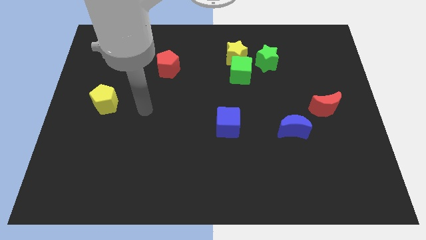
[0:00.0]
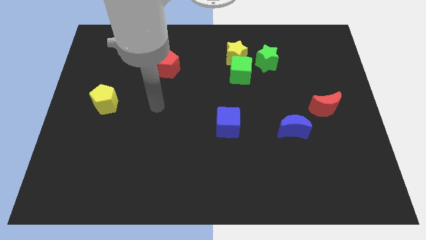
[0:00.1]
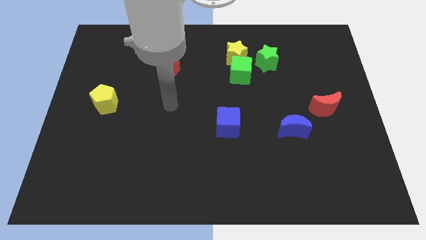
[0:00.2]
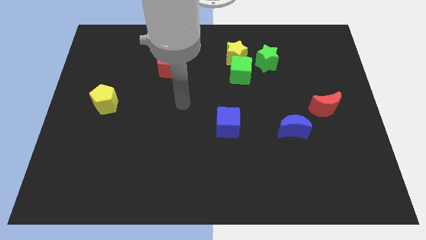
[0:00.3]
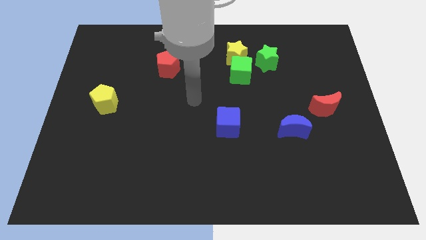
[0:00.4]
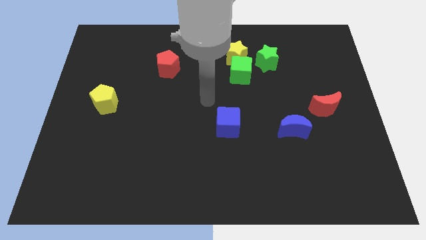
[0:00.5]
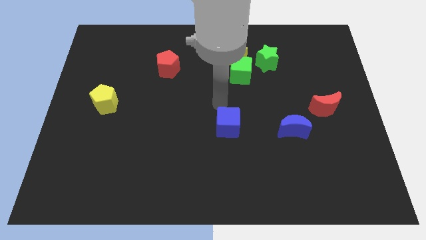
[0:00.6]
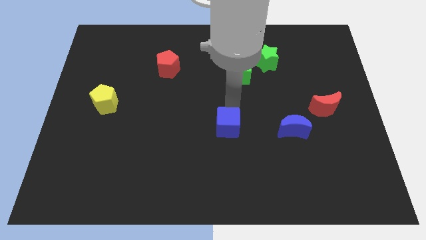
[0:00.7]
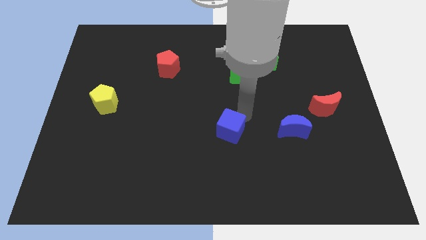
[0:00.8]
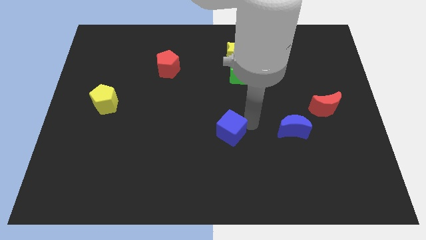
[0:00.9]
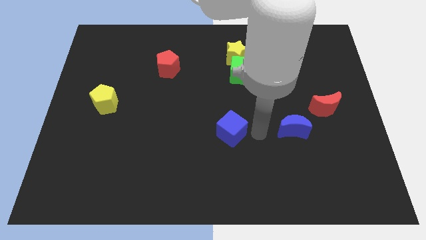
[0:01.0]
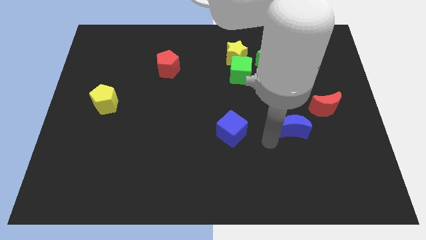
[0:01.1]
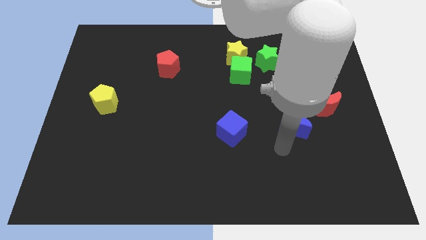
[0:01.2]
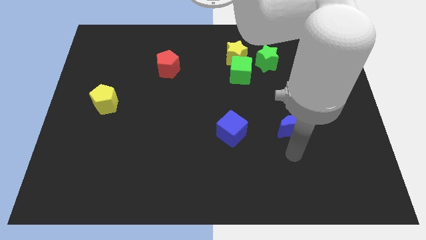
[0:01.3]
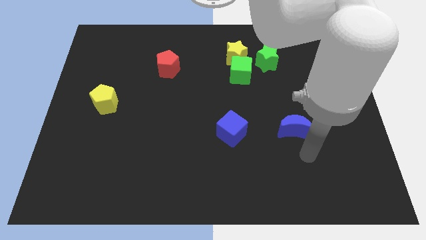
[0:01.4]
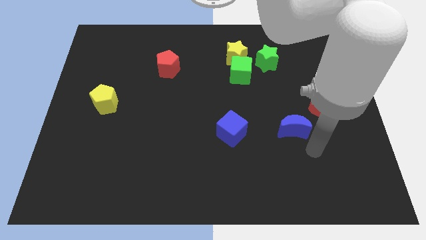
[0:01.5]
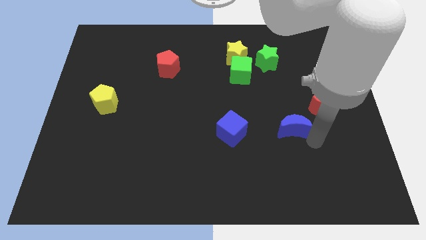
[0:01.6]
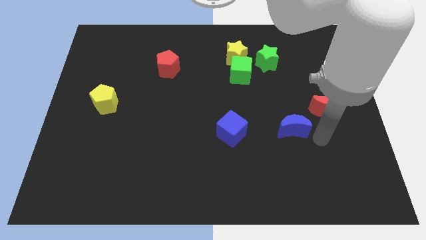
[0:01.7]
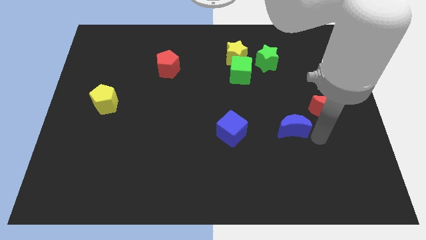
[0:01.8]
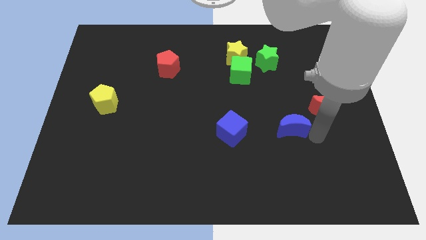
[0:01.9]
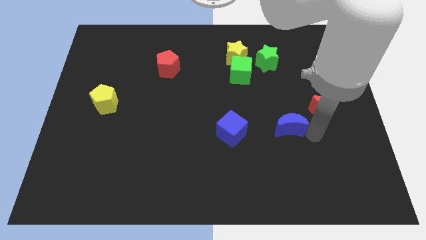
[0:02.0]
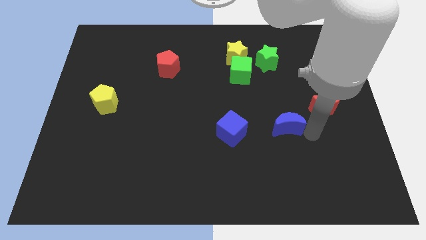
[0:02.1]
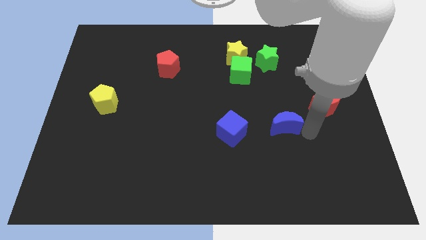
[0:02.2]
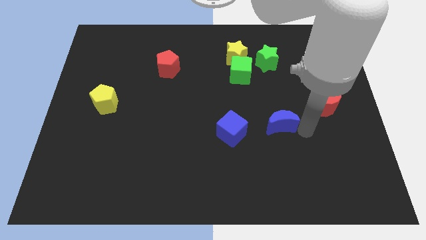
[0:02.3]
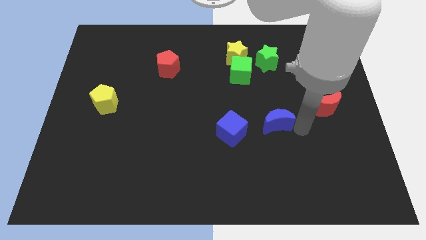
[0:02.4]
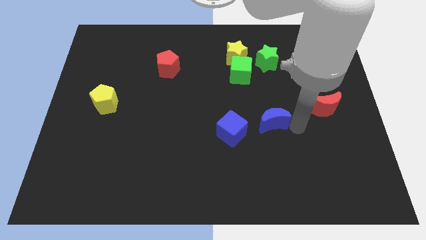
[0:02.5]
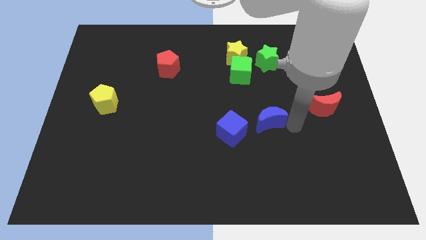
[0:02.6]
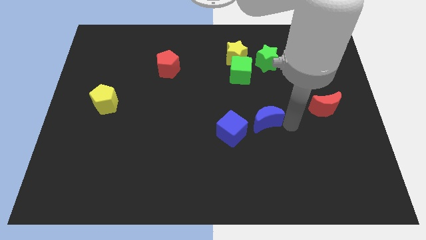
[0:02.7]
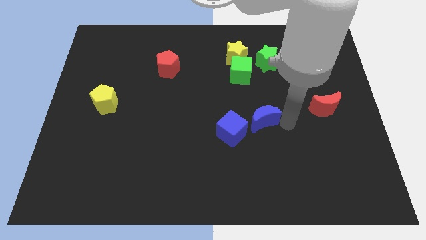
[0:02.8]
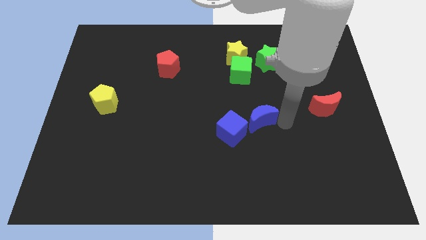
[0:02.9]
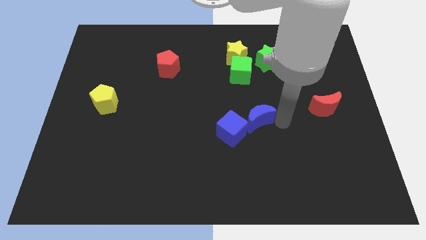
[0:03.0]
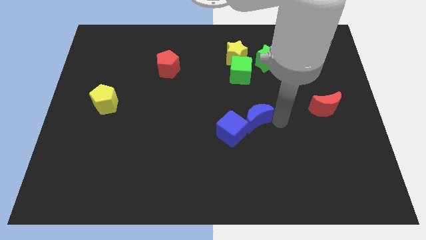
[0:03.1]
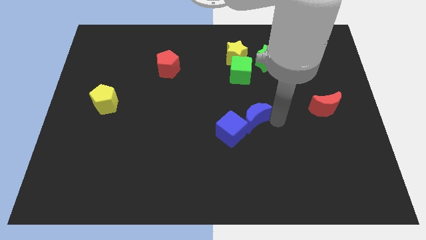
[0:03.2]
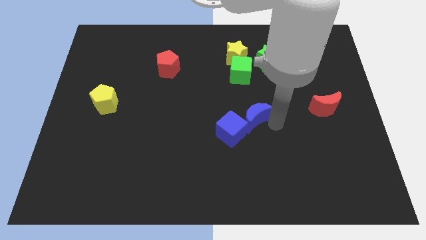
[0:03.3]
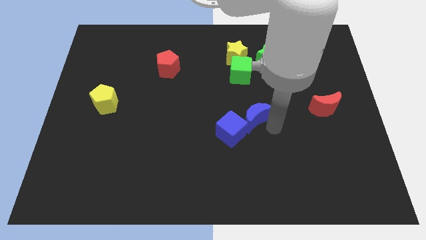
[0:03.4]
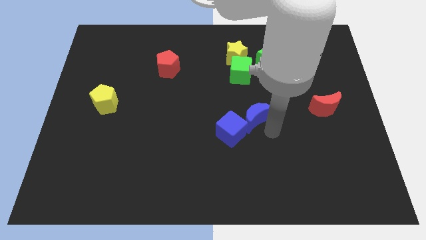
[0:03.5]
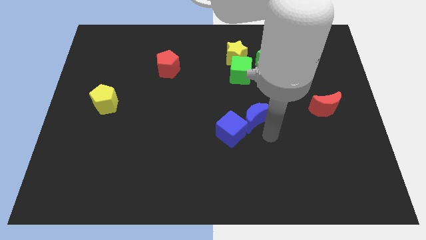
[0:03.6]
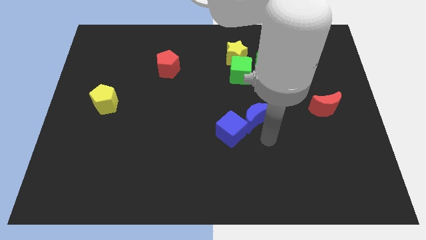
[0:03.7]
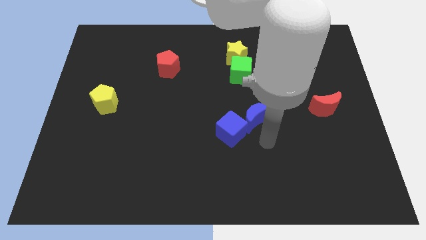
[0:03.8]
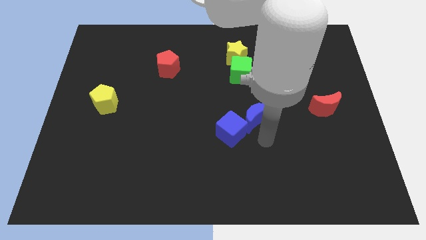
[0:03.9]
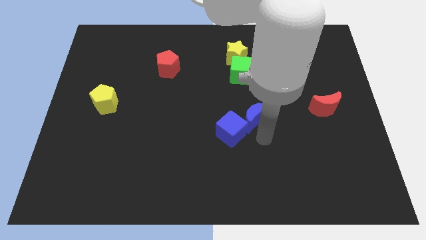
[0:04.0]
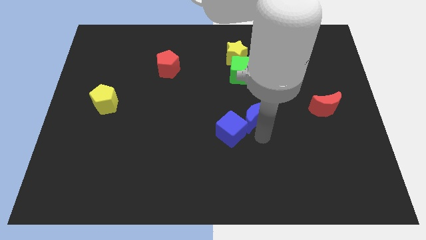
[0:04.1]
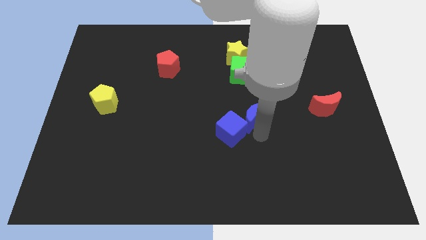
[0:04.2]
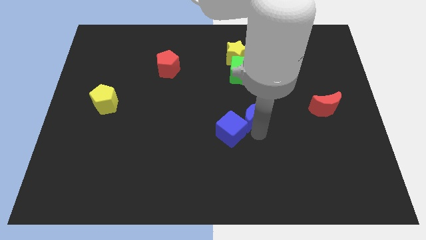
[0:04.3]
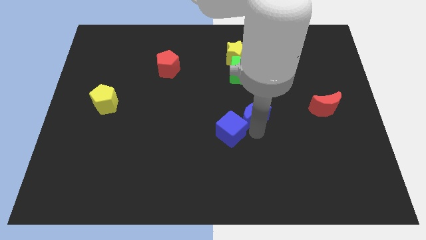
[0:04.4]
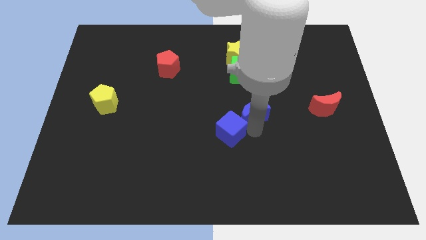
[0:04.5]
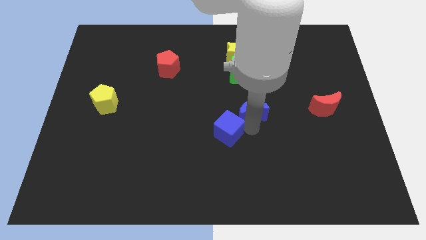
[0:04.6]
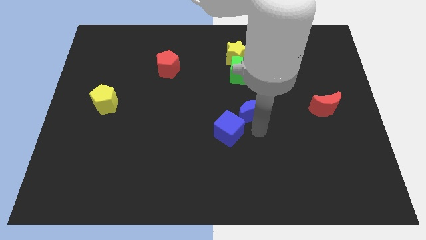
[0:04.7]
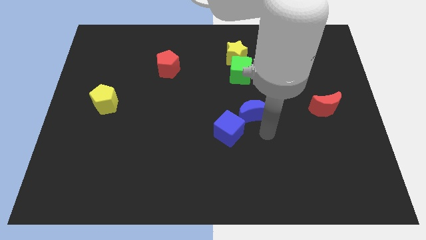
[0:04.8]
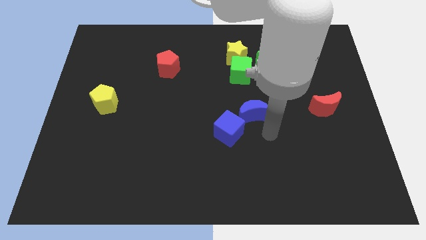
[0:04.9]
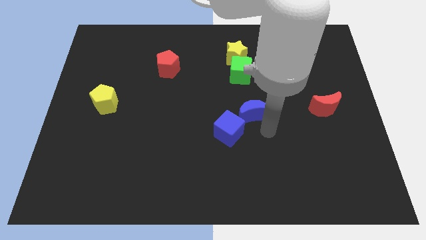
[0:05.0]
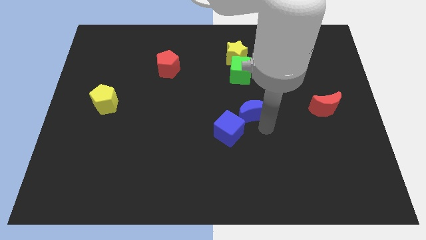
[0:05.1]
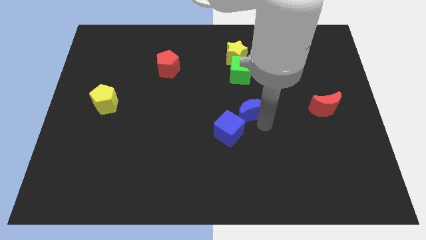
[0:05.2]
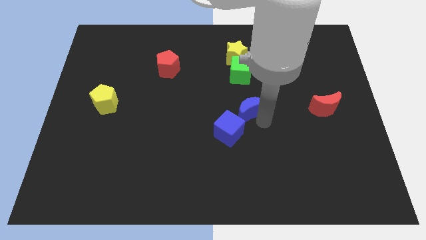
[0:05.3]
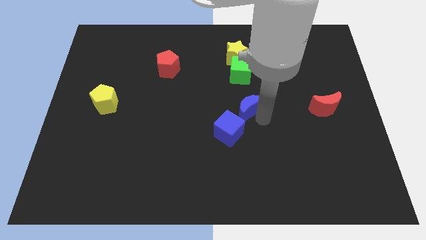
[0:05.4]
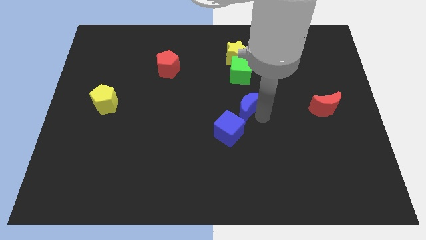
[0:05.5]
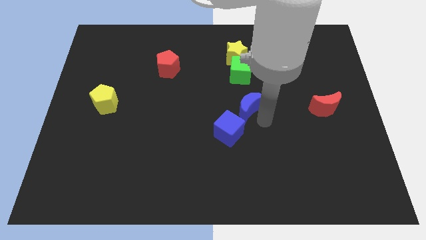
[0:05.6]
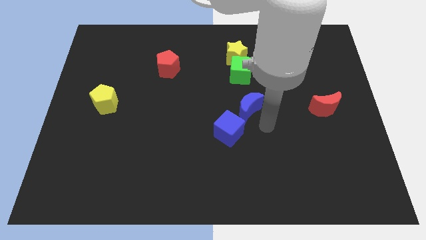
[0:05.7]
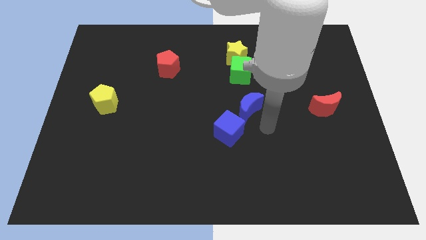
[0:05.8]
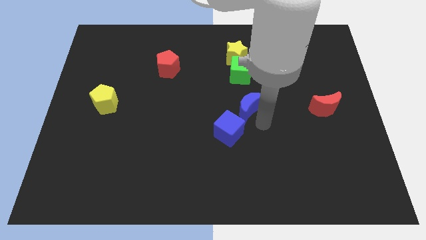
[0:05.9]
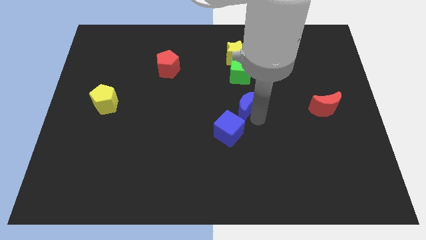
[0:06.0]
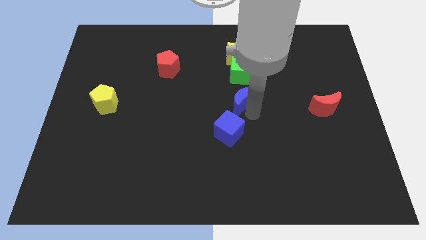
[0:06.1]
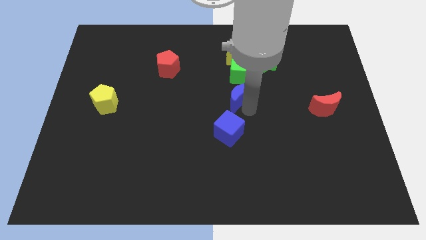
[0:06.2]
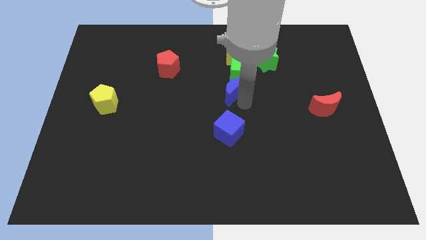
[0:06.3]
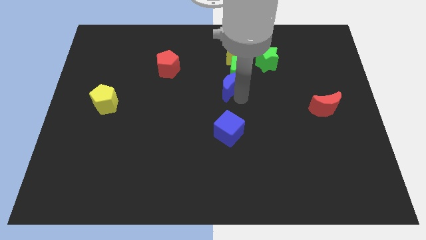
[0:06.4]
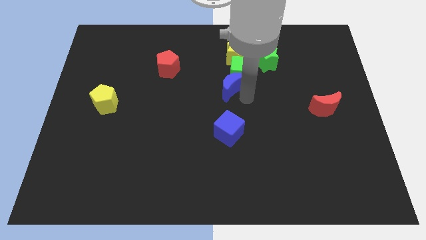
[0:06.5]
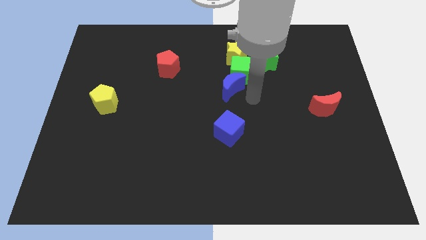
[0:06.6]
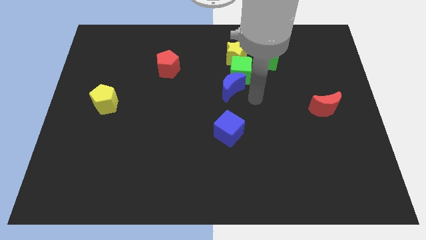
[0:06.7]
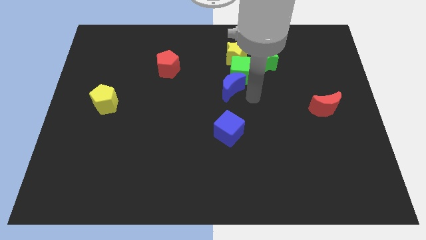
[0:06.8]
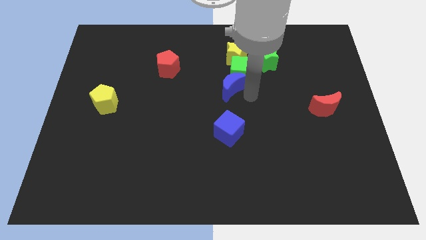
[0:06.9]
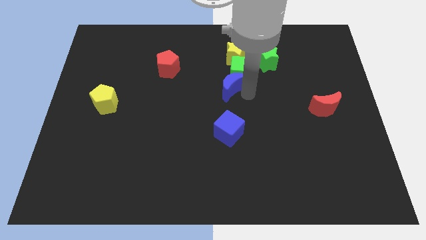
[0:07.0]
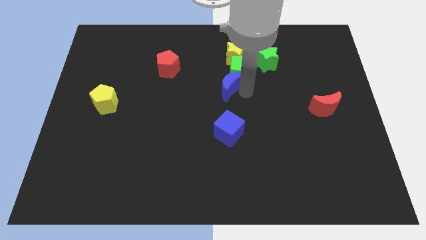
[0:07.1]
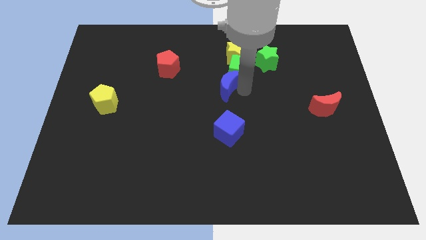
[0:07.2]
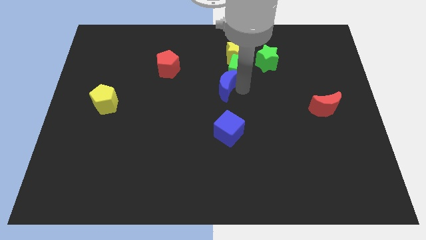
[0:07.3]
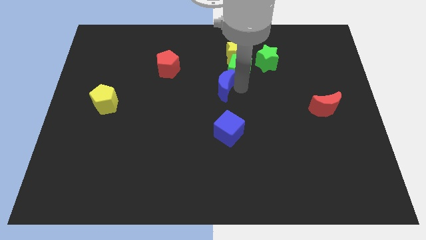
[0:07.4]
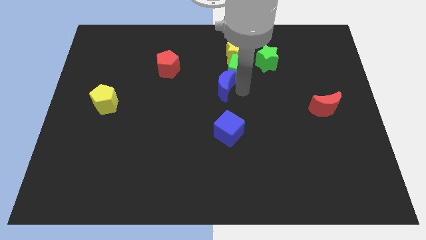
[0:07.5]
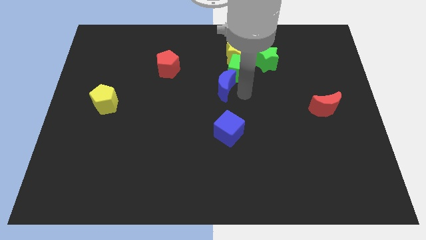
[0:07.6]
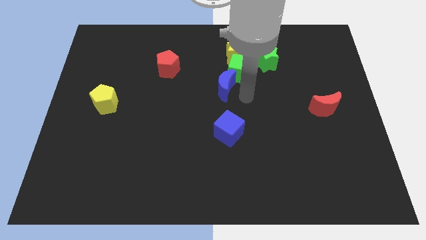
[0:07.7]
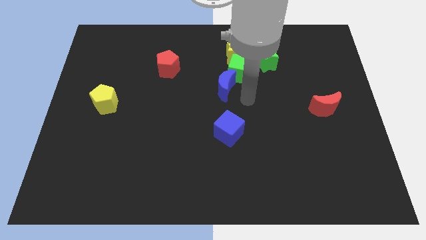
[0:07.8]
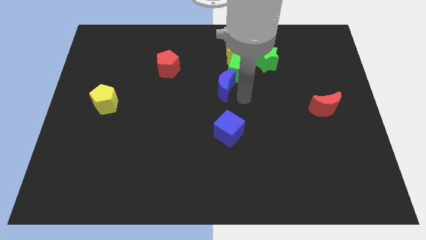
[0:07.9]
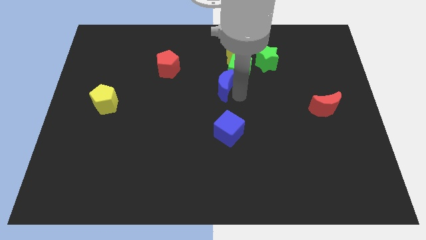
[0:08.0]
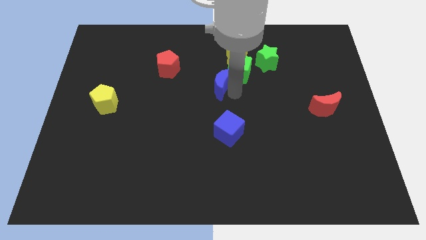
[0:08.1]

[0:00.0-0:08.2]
push the blue moon diagonally upwards and to the left
